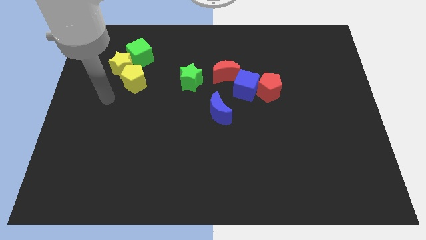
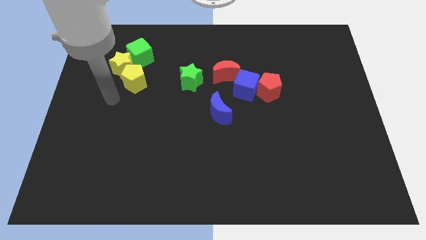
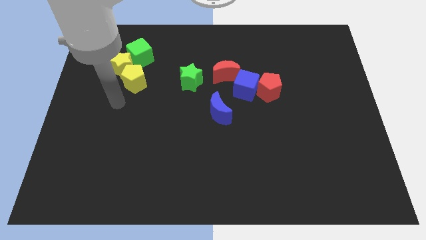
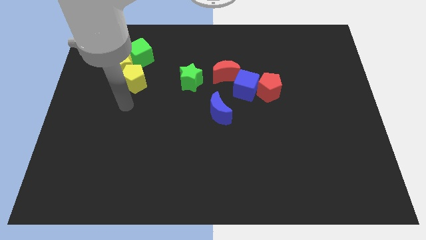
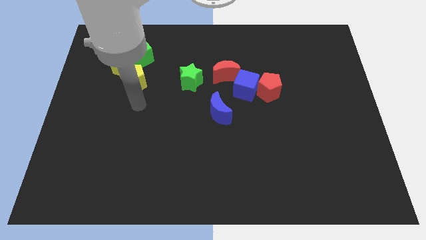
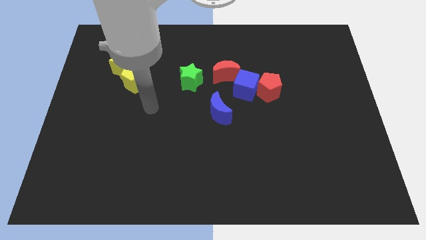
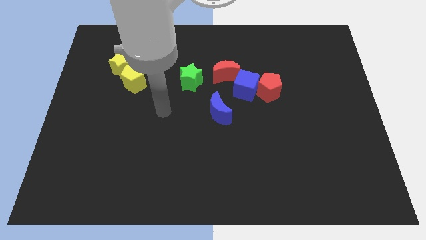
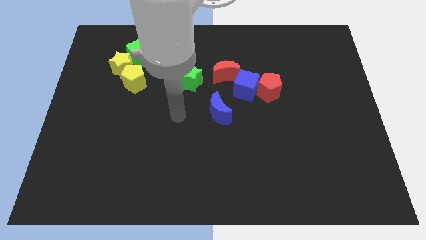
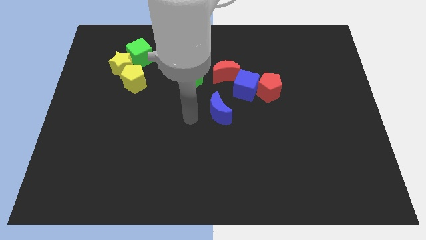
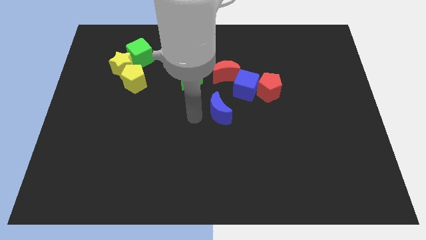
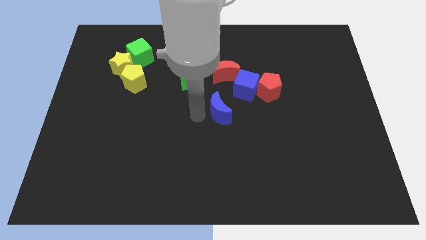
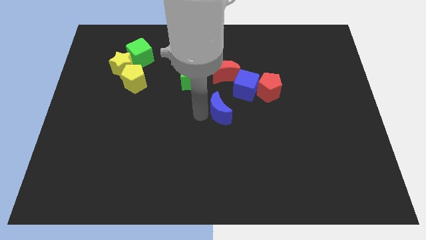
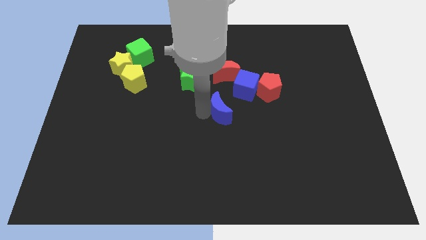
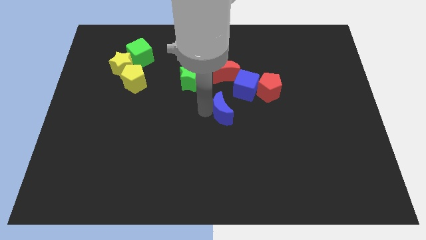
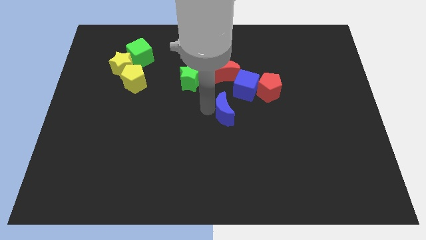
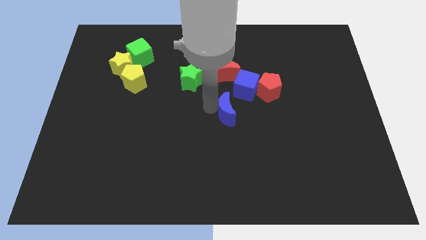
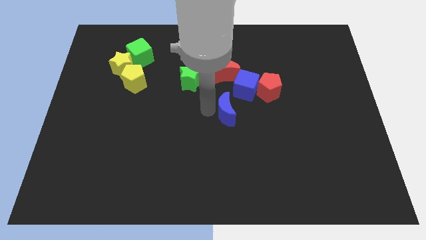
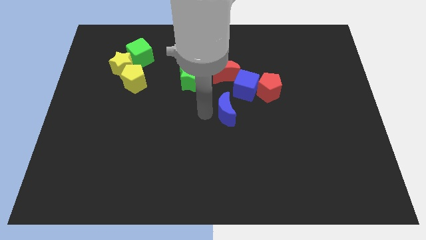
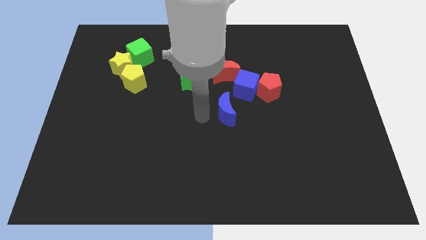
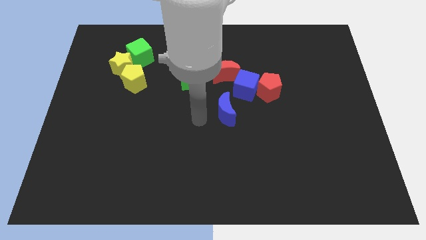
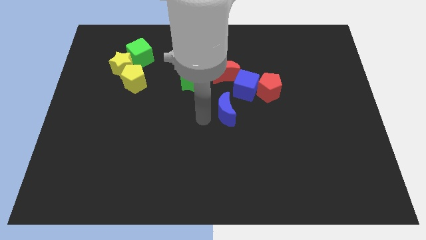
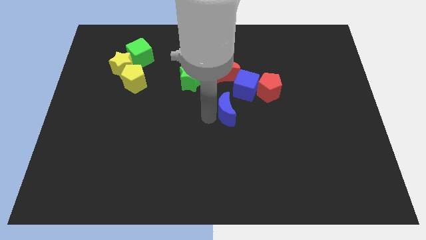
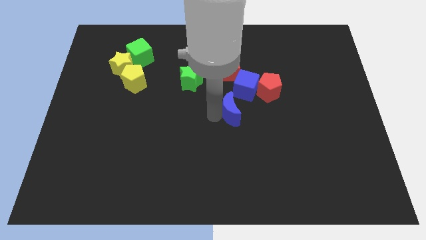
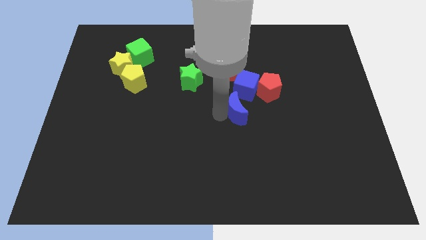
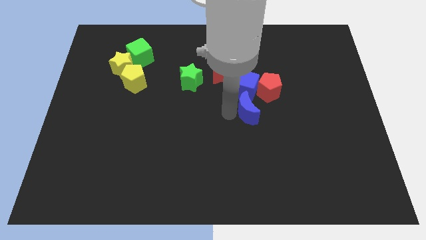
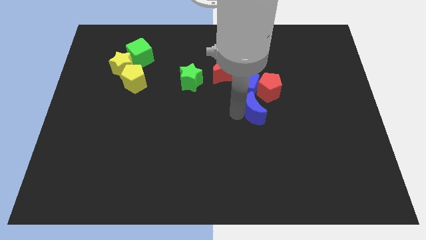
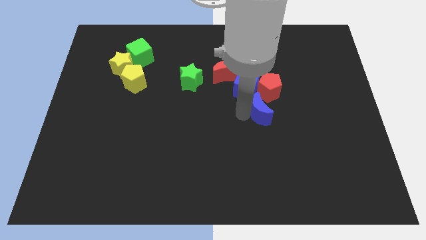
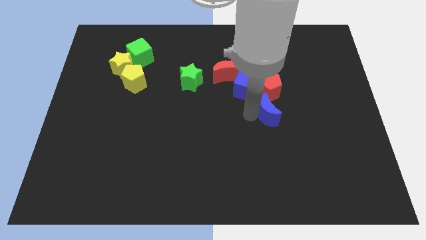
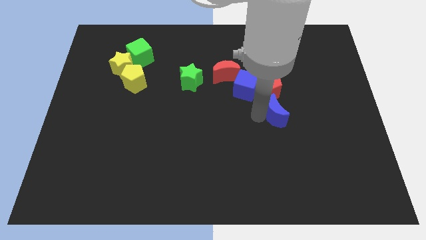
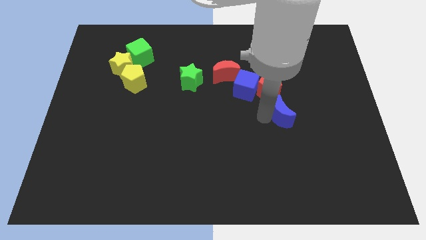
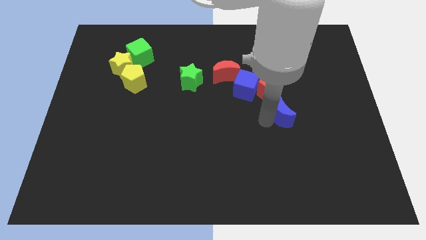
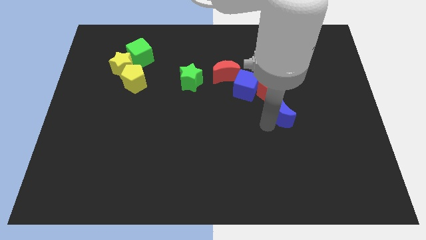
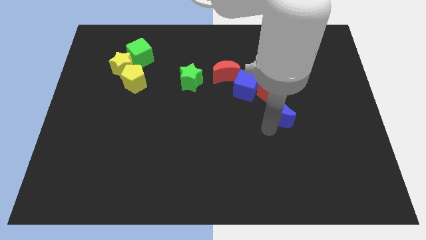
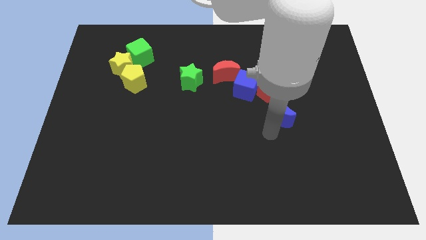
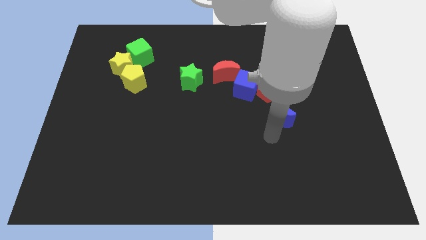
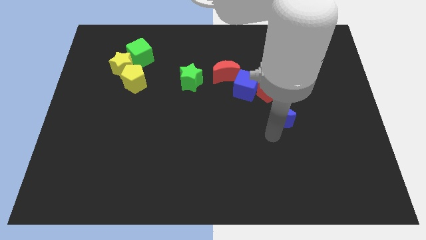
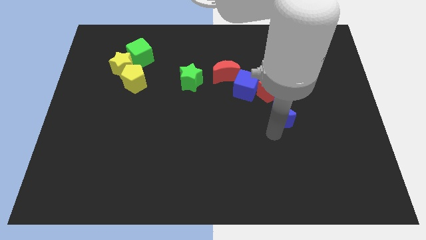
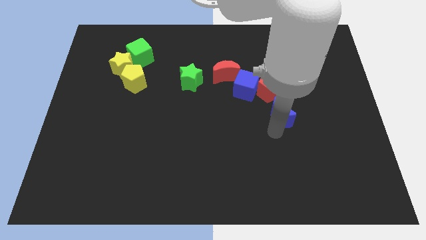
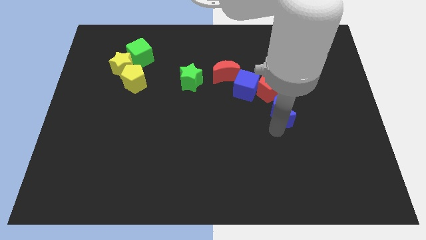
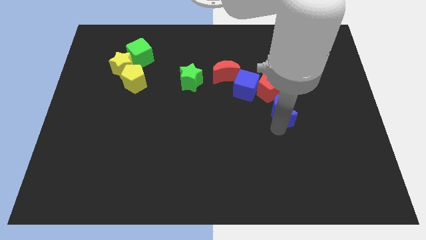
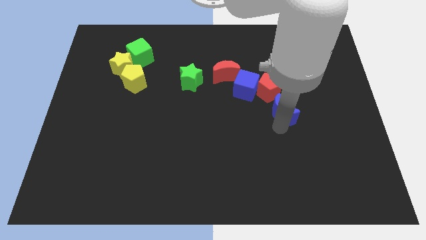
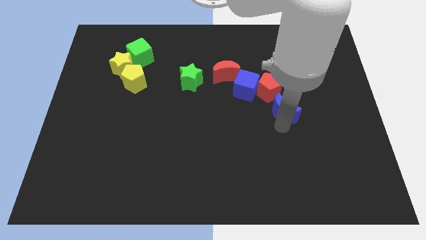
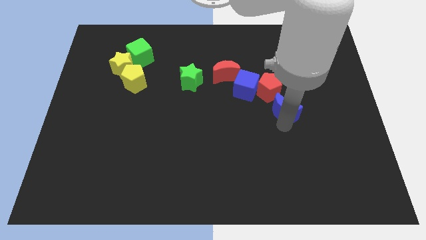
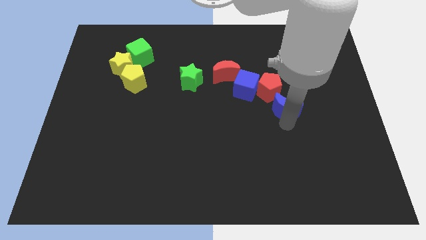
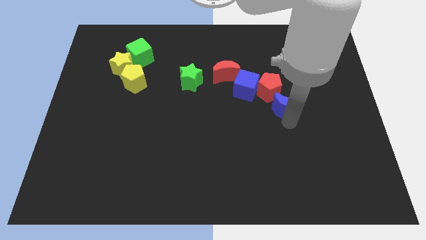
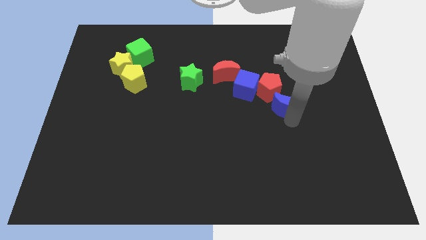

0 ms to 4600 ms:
slightly slide the blue moon up and to the right diagonally

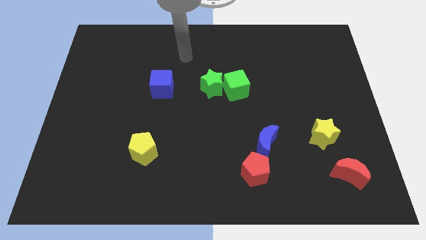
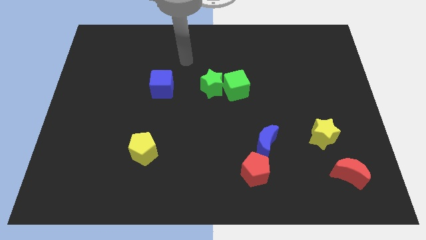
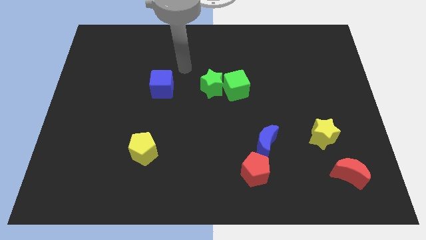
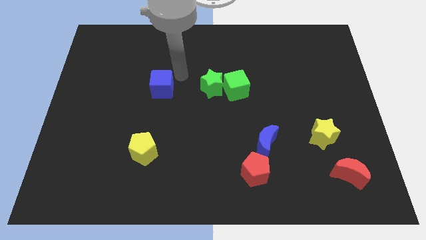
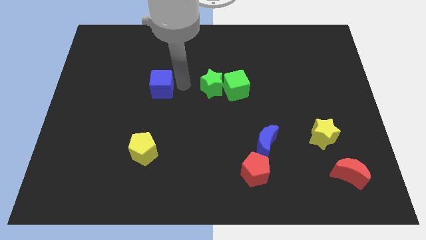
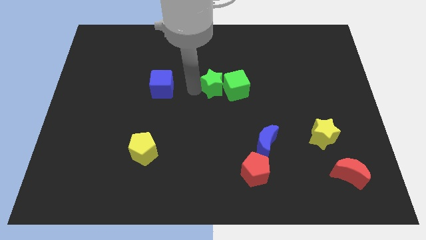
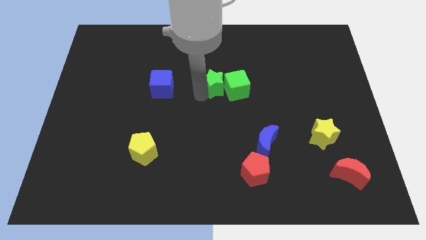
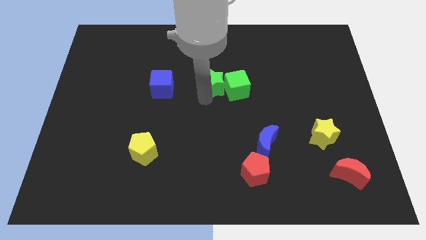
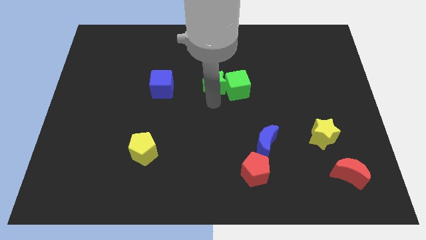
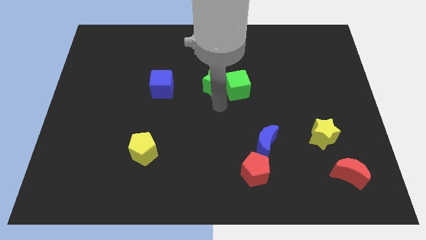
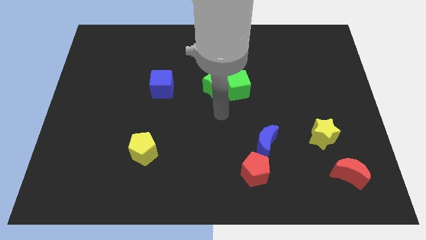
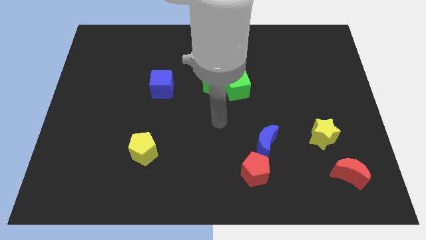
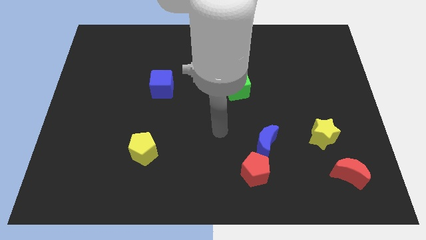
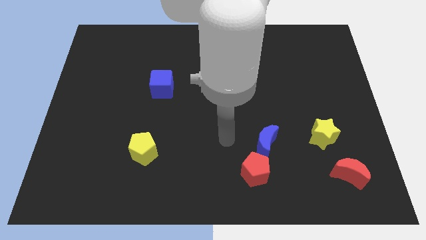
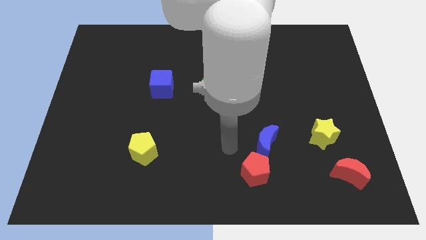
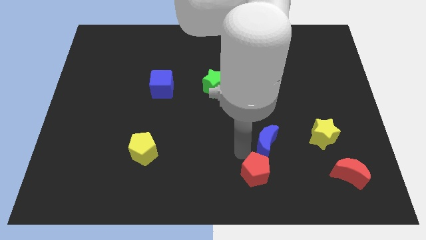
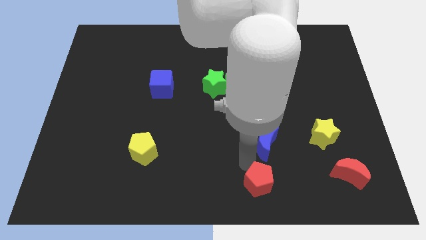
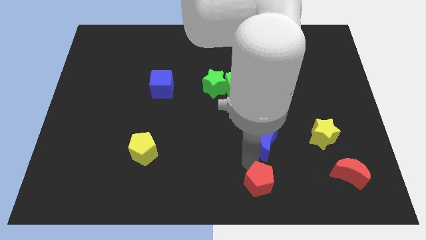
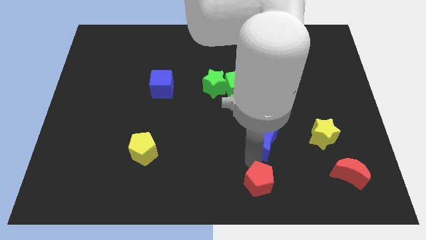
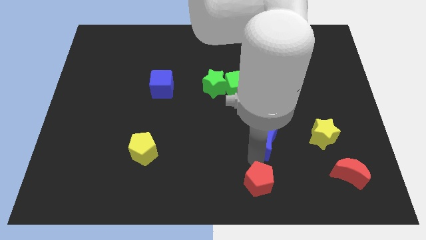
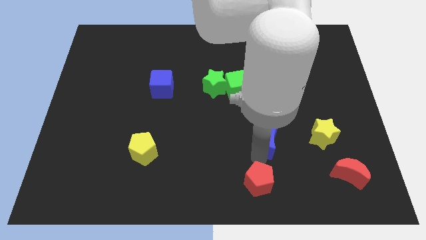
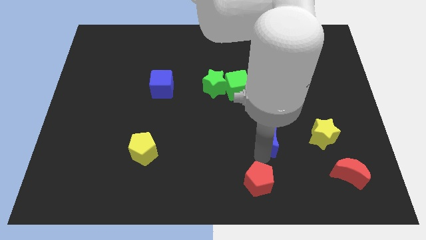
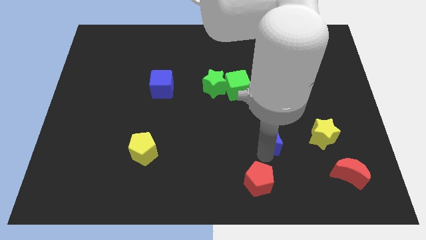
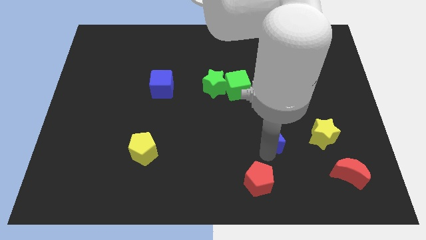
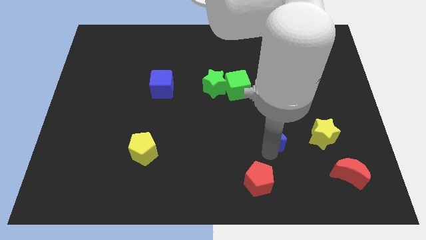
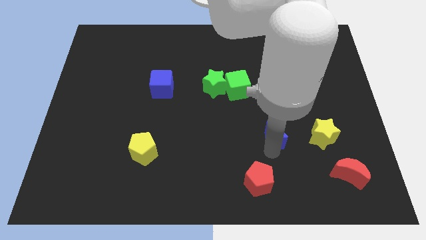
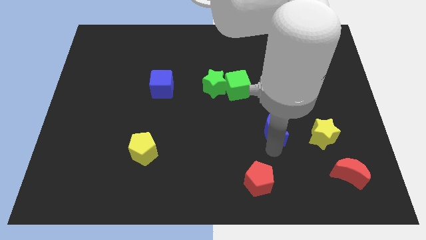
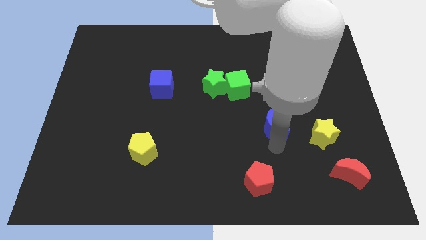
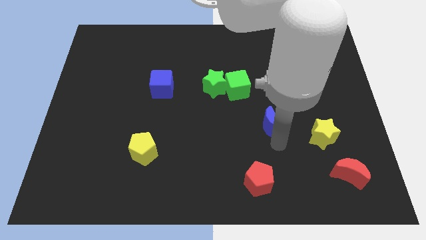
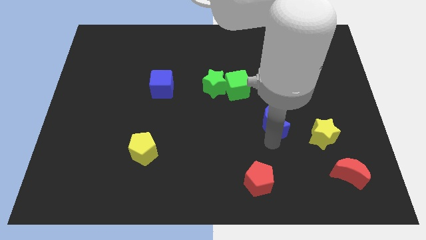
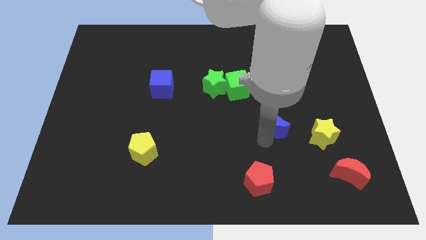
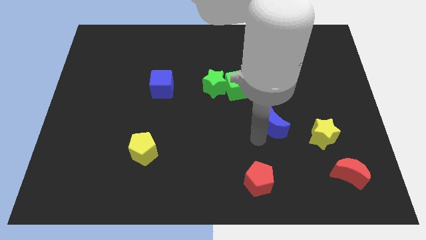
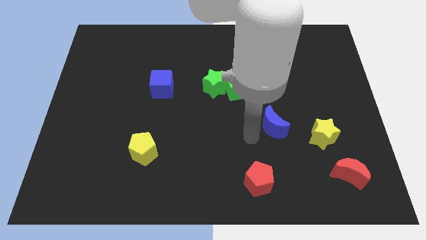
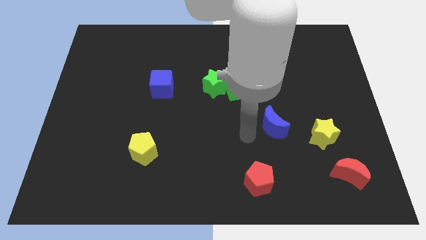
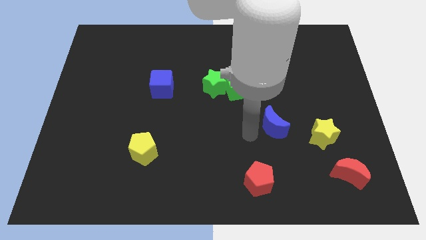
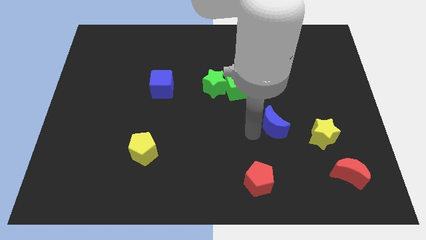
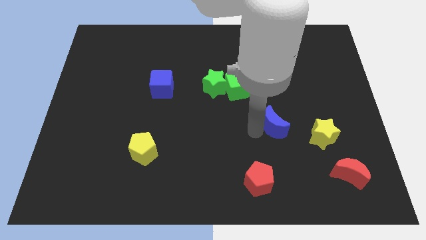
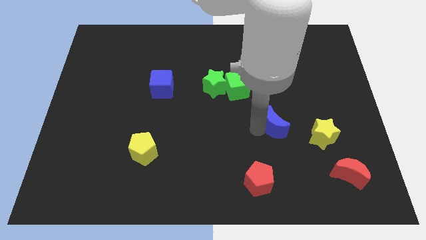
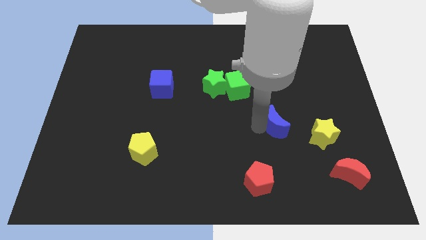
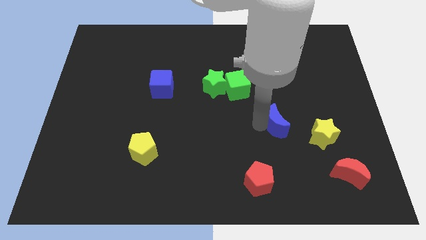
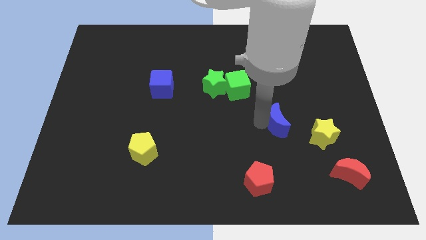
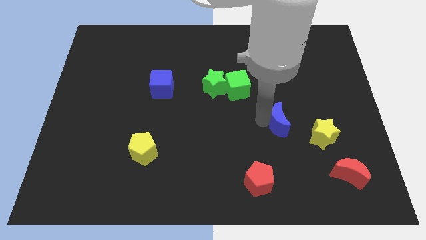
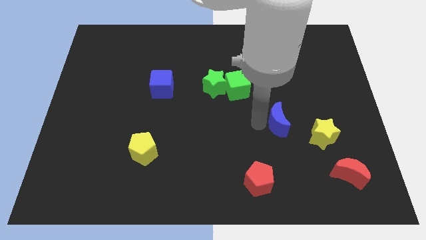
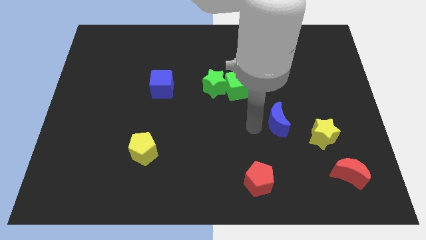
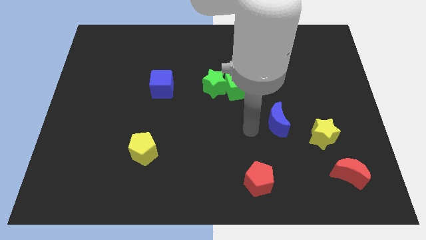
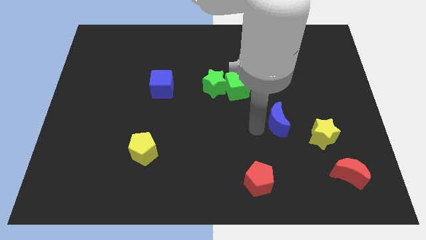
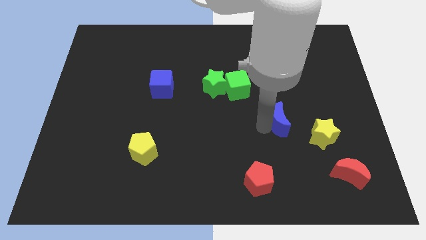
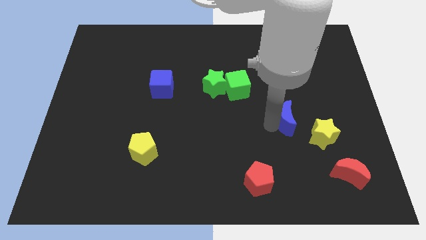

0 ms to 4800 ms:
move the blue moon somewhat upwards and right diagonally
